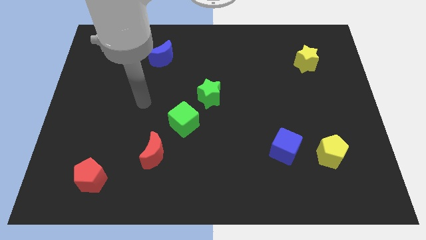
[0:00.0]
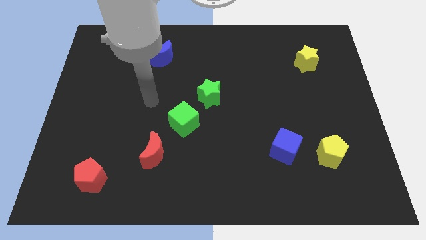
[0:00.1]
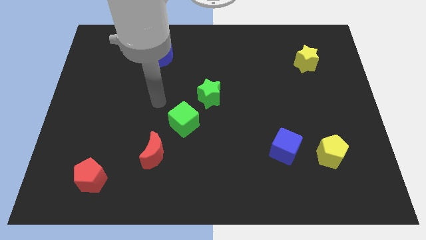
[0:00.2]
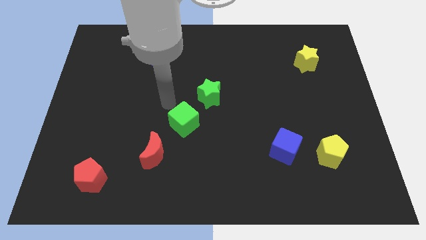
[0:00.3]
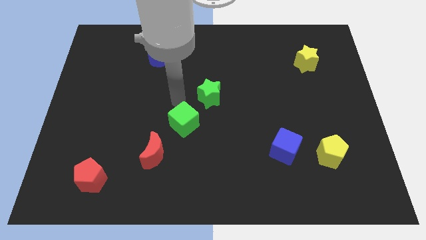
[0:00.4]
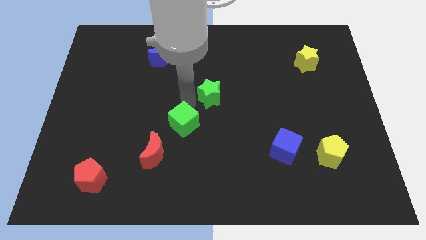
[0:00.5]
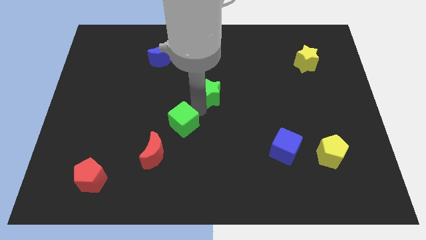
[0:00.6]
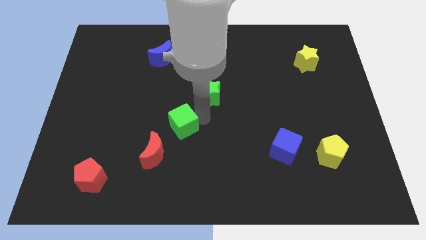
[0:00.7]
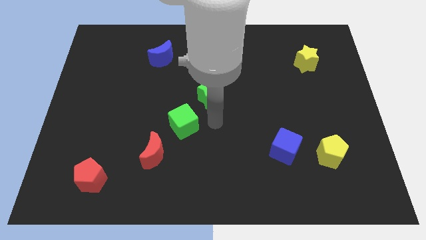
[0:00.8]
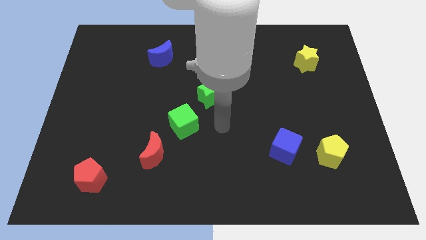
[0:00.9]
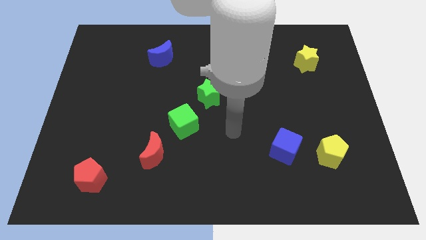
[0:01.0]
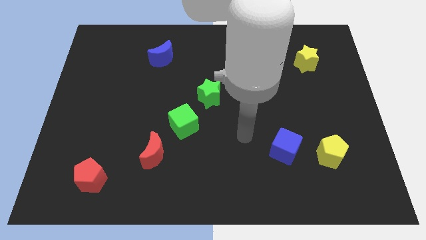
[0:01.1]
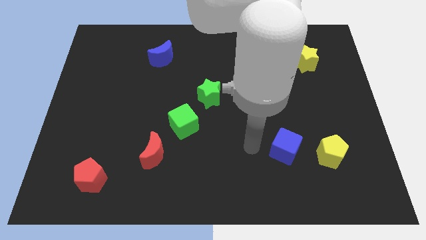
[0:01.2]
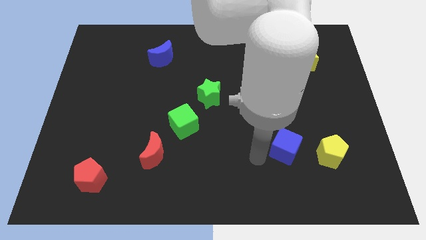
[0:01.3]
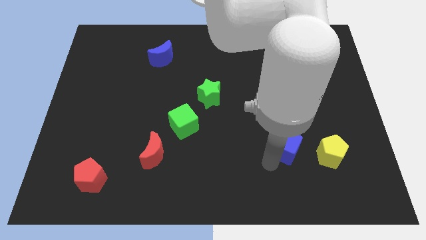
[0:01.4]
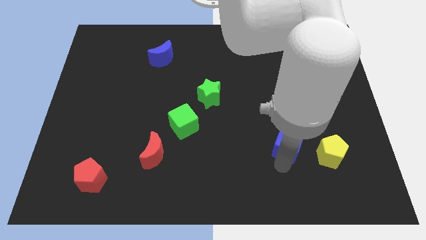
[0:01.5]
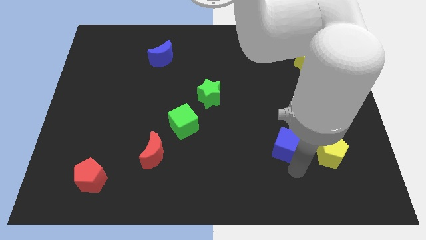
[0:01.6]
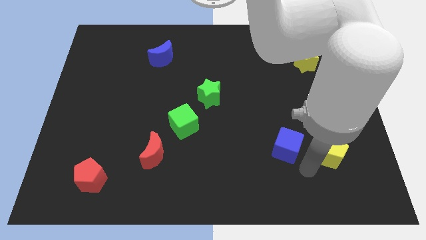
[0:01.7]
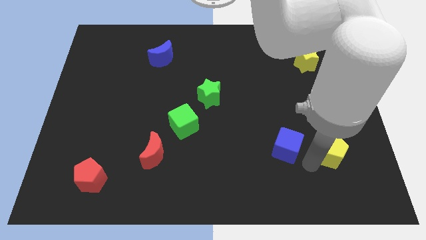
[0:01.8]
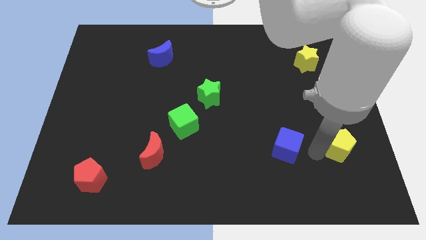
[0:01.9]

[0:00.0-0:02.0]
pull the blue cube apart from the yellow pentagon

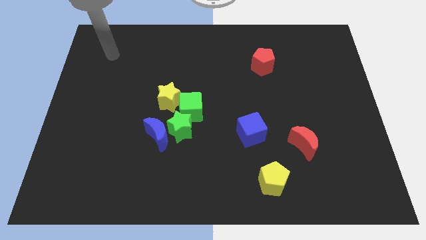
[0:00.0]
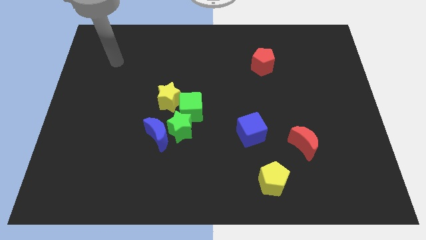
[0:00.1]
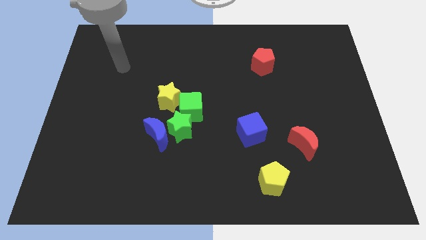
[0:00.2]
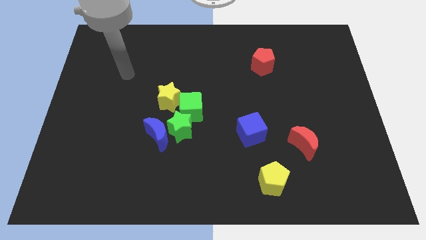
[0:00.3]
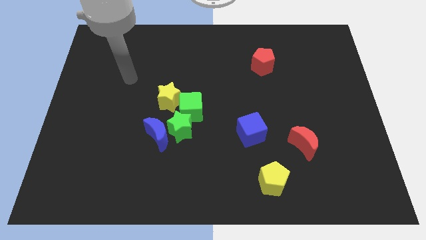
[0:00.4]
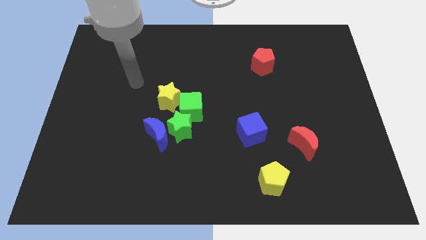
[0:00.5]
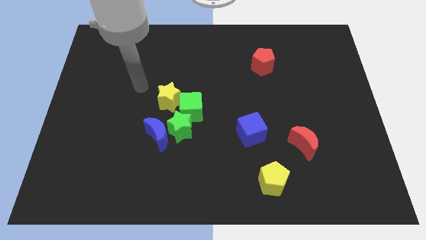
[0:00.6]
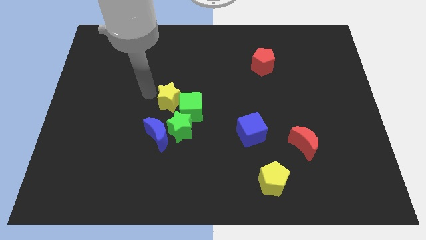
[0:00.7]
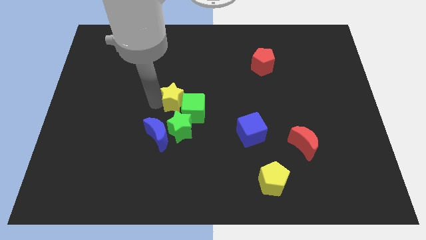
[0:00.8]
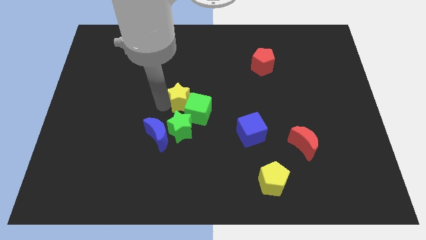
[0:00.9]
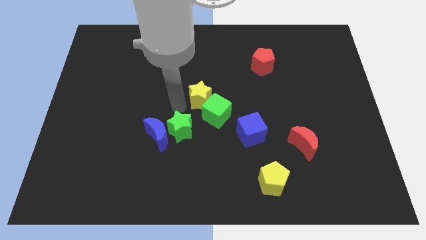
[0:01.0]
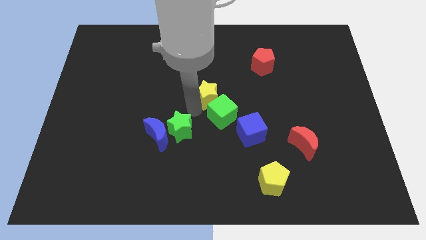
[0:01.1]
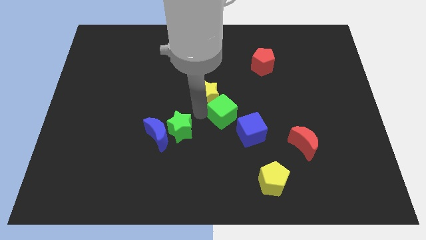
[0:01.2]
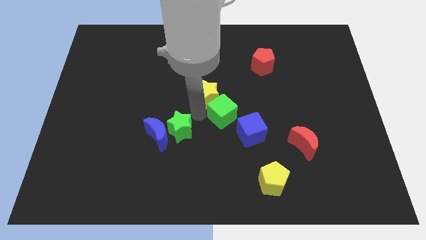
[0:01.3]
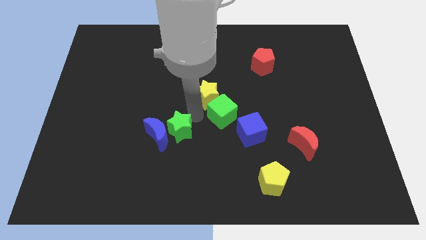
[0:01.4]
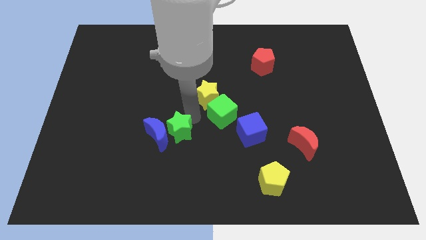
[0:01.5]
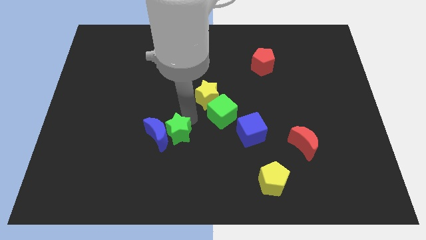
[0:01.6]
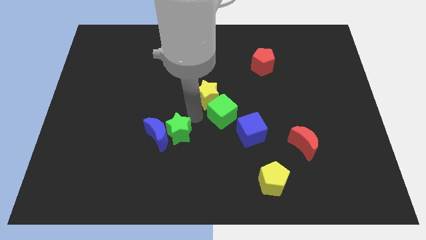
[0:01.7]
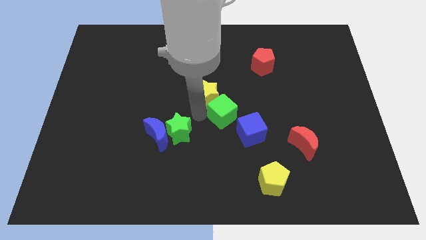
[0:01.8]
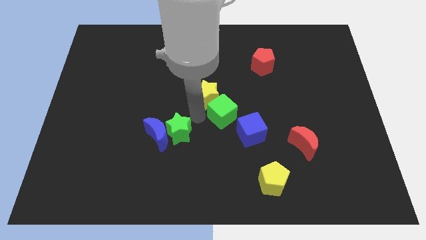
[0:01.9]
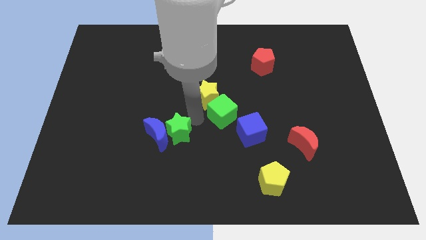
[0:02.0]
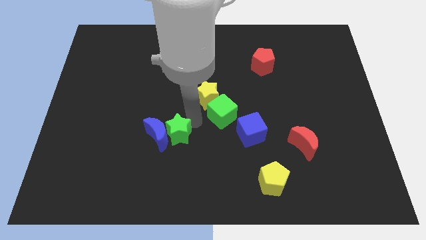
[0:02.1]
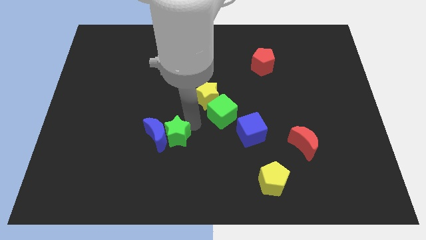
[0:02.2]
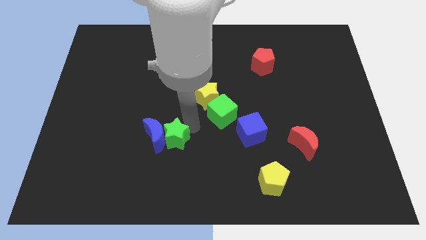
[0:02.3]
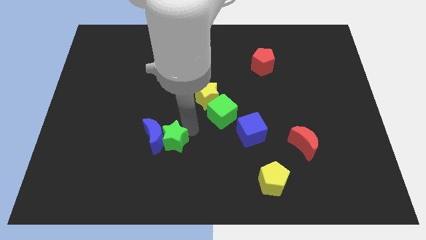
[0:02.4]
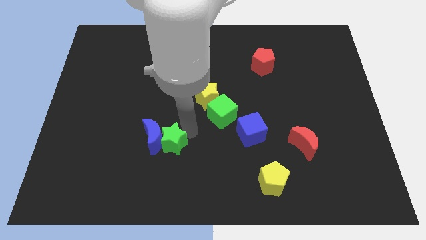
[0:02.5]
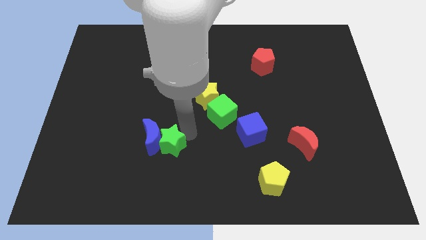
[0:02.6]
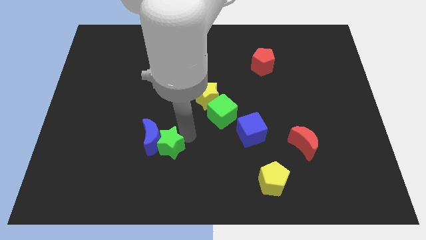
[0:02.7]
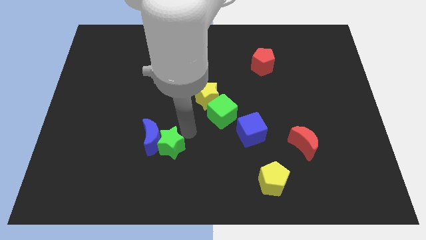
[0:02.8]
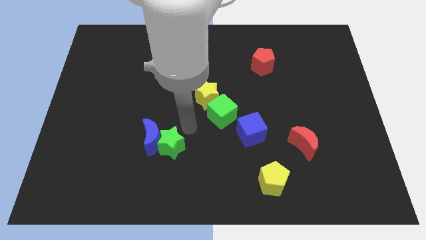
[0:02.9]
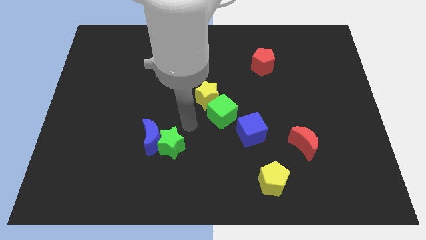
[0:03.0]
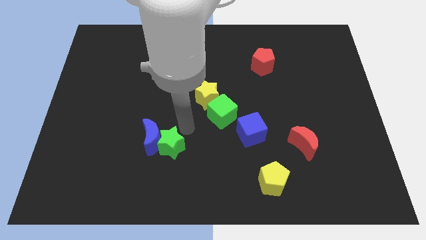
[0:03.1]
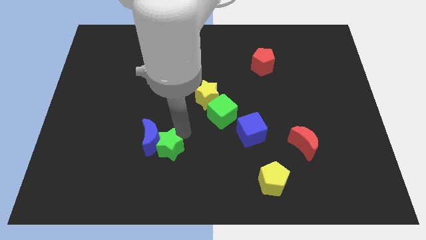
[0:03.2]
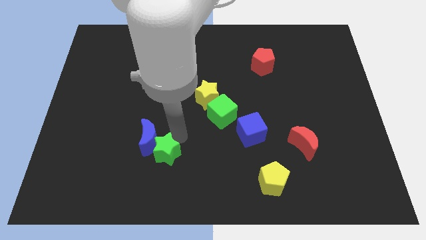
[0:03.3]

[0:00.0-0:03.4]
separate the green star from the group

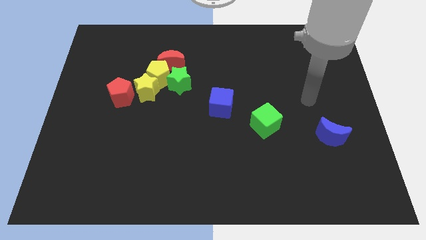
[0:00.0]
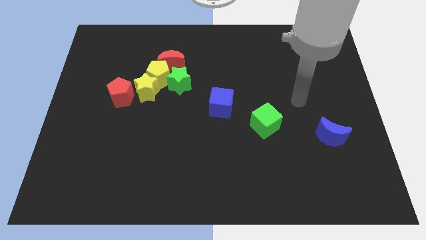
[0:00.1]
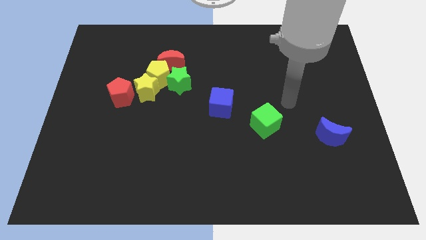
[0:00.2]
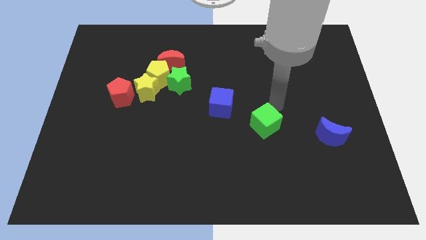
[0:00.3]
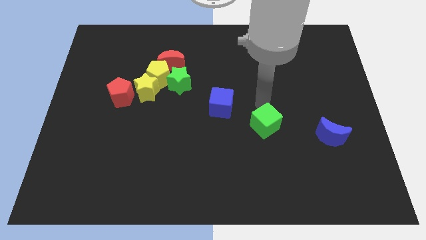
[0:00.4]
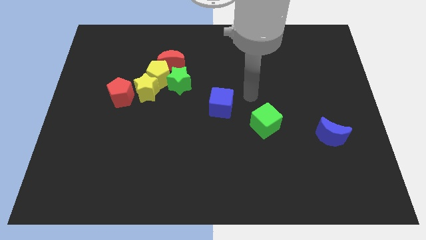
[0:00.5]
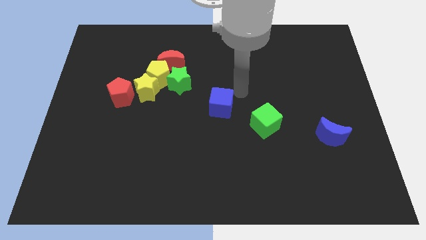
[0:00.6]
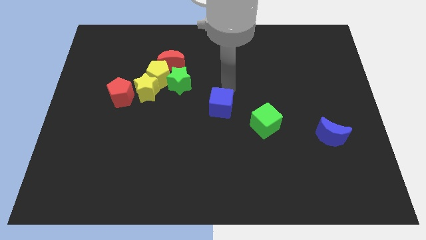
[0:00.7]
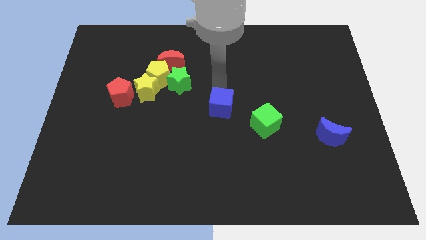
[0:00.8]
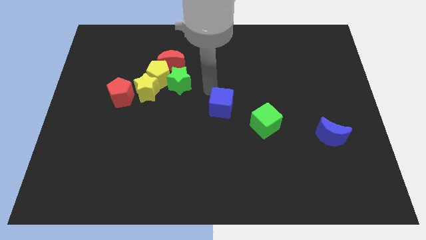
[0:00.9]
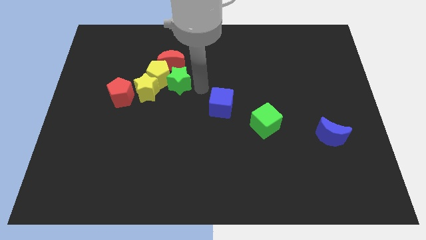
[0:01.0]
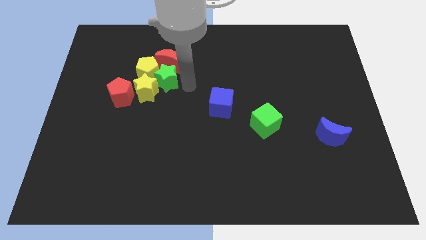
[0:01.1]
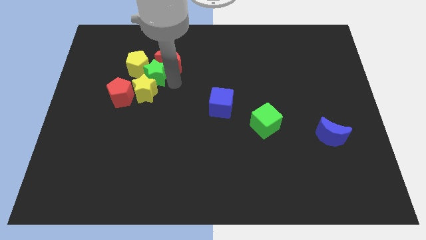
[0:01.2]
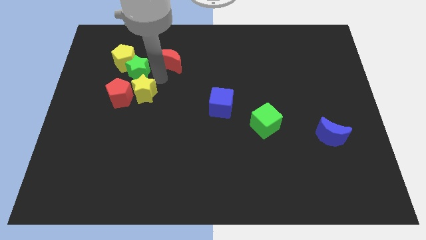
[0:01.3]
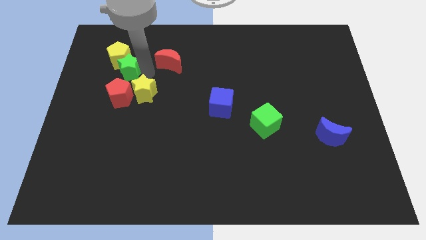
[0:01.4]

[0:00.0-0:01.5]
move the yellow pentagon away from the group of blocks

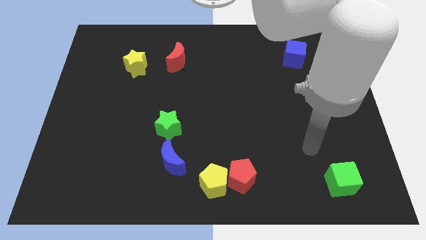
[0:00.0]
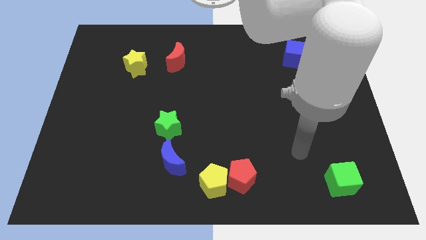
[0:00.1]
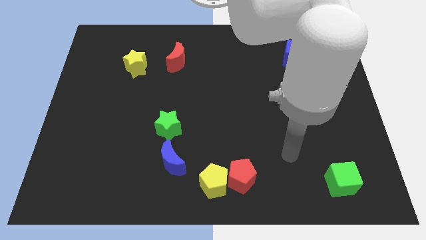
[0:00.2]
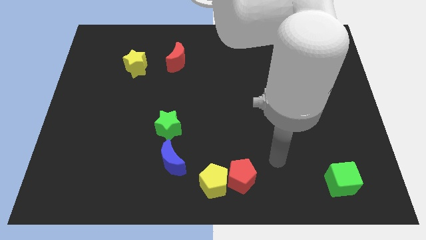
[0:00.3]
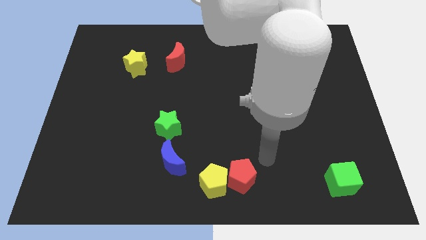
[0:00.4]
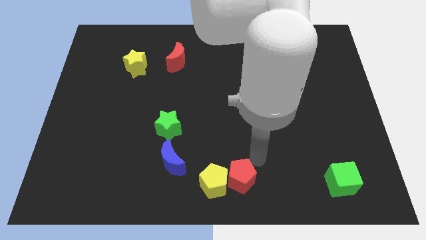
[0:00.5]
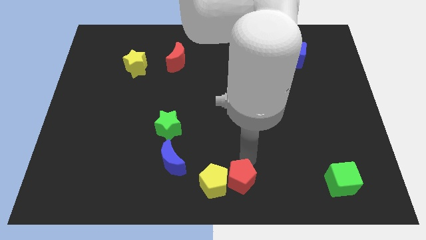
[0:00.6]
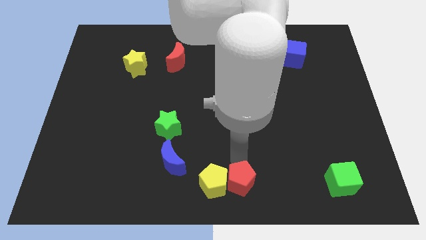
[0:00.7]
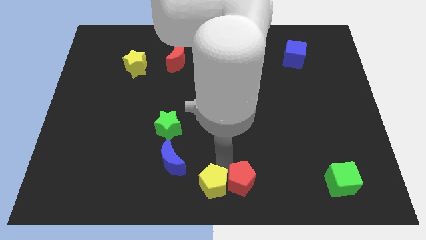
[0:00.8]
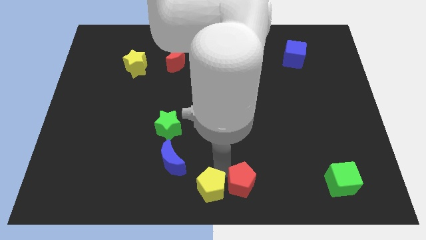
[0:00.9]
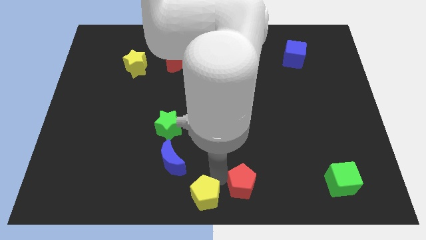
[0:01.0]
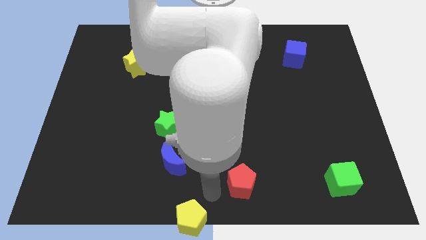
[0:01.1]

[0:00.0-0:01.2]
pull the red pentagon apart from the yellow pentagon

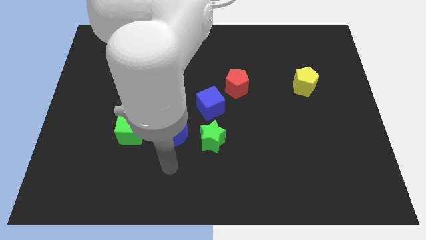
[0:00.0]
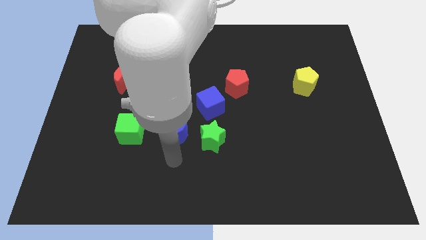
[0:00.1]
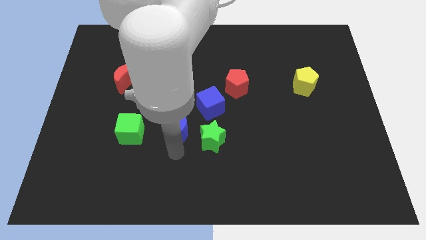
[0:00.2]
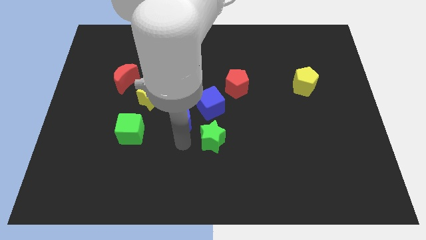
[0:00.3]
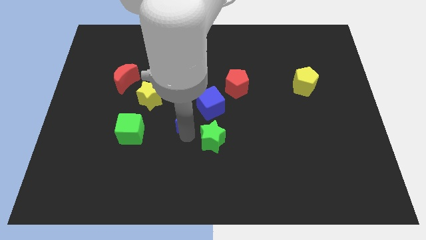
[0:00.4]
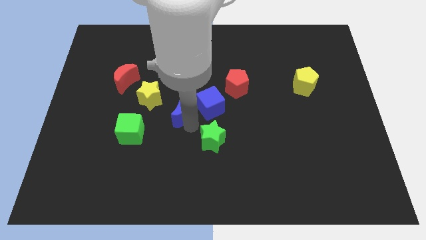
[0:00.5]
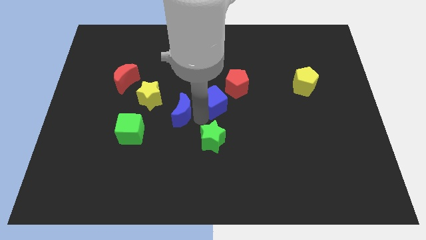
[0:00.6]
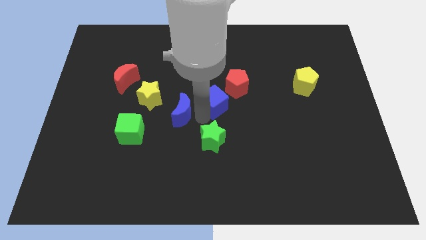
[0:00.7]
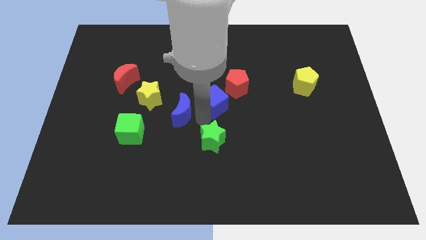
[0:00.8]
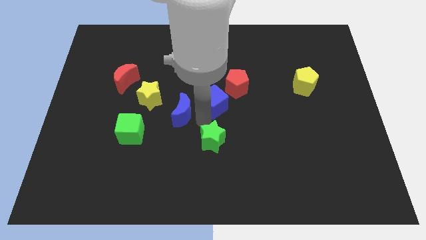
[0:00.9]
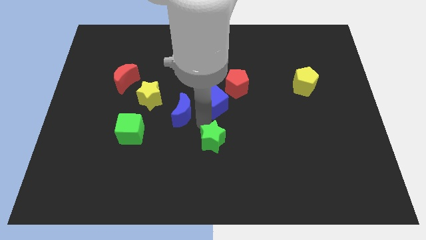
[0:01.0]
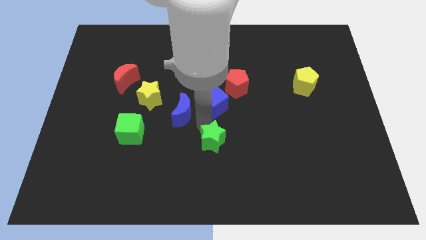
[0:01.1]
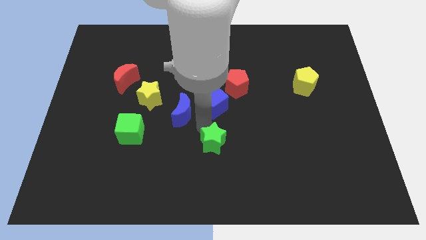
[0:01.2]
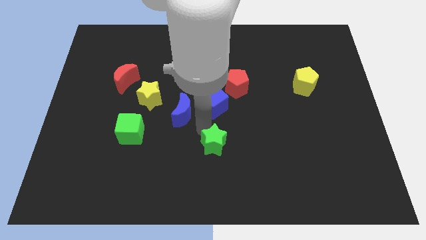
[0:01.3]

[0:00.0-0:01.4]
pull the green star apart from the blue moon and blue cube
